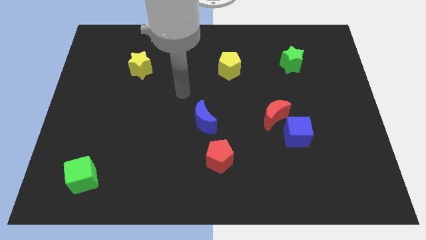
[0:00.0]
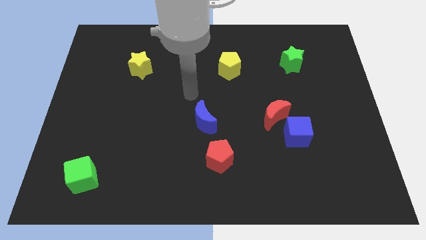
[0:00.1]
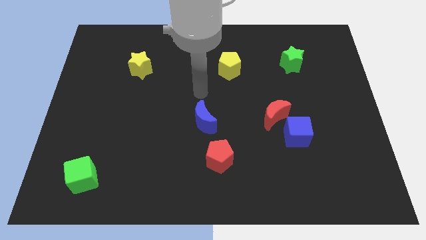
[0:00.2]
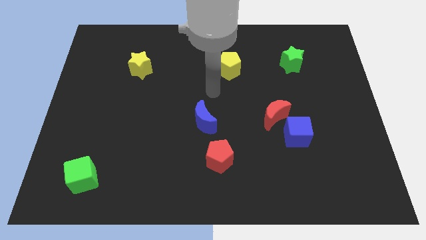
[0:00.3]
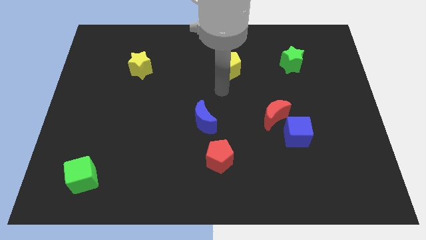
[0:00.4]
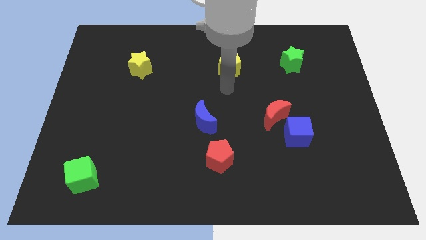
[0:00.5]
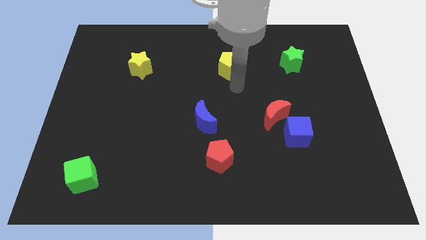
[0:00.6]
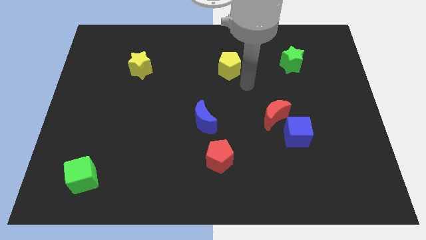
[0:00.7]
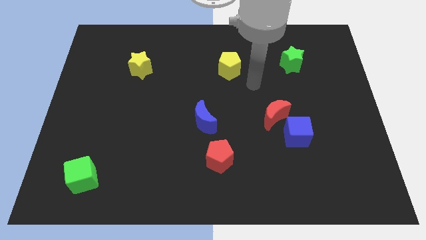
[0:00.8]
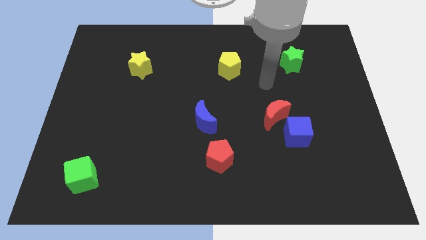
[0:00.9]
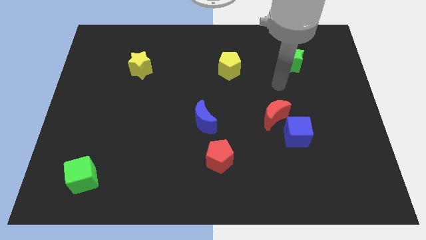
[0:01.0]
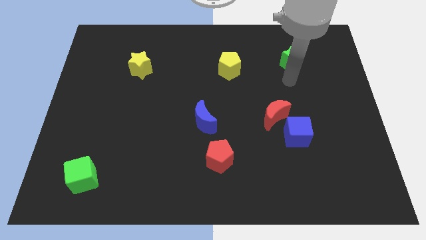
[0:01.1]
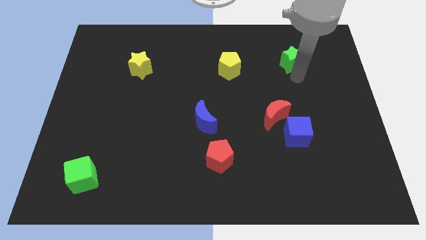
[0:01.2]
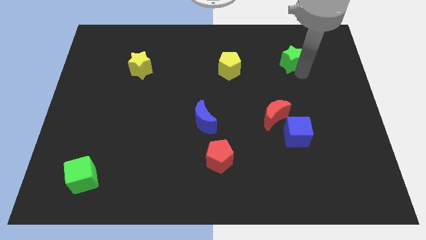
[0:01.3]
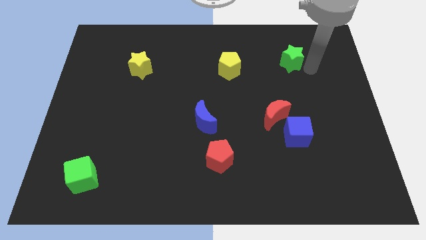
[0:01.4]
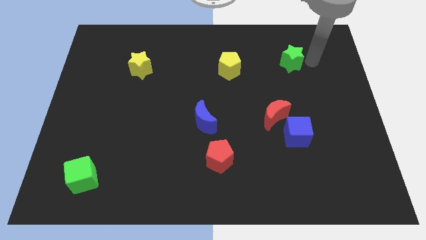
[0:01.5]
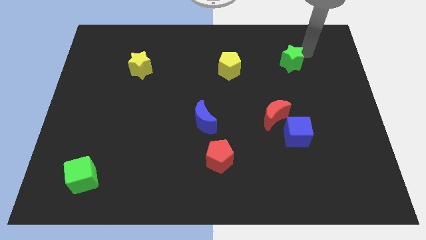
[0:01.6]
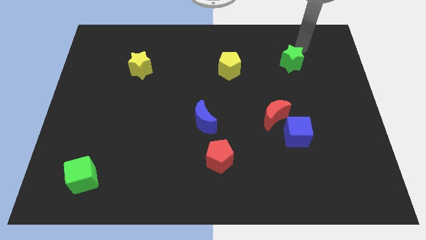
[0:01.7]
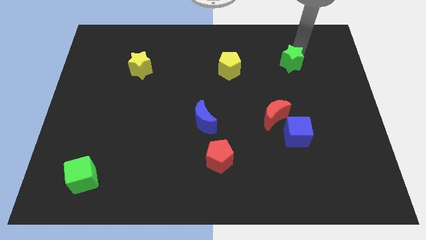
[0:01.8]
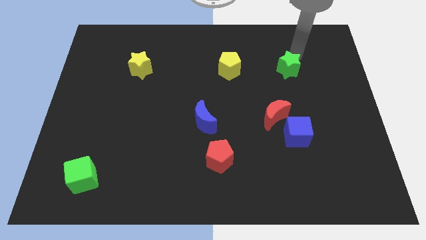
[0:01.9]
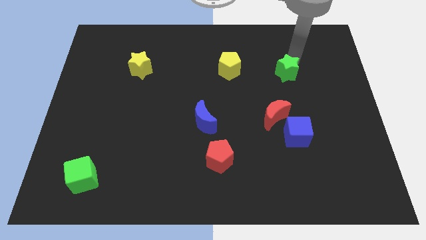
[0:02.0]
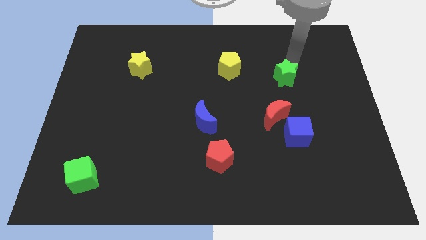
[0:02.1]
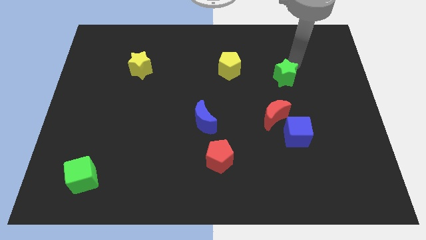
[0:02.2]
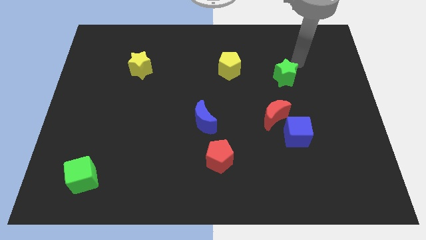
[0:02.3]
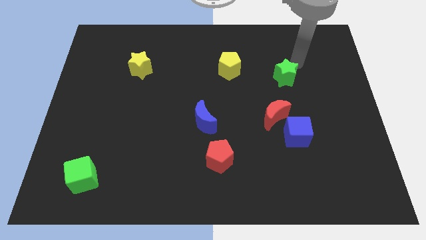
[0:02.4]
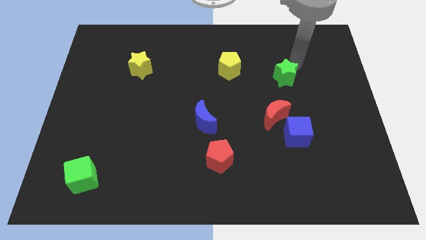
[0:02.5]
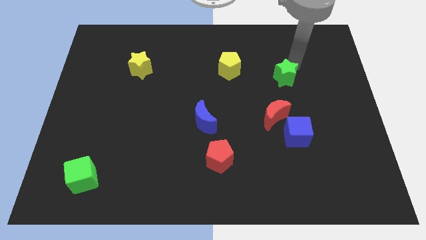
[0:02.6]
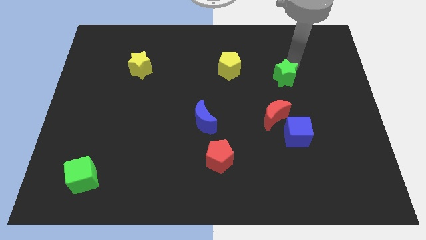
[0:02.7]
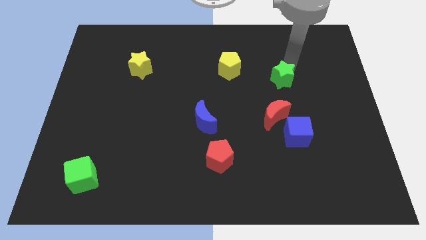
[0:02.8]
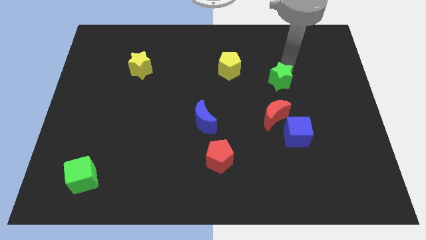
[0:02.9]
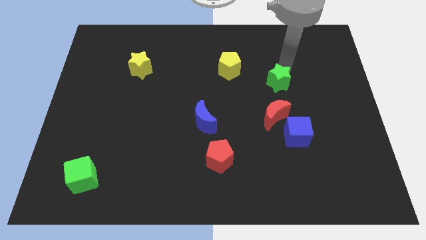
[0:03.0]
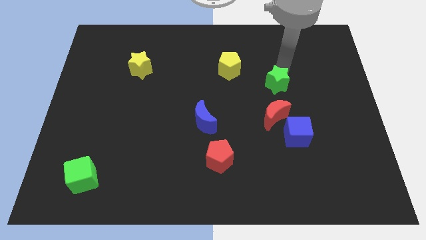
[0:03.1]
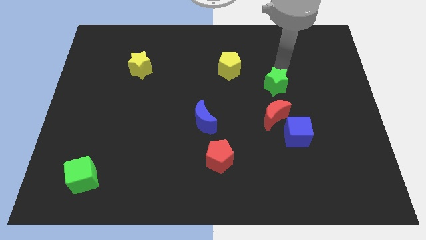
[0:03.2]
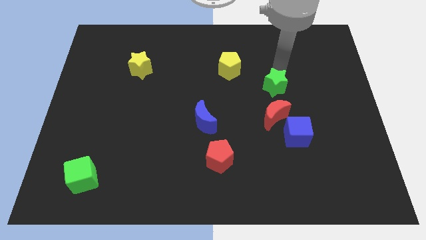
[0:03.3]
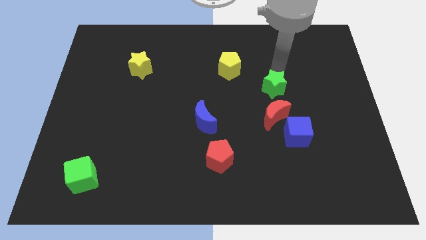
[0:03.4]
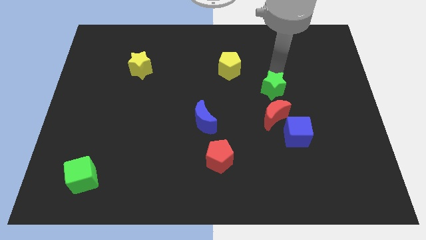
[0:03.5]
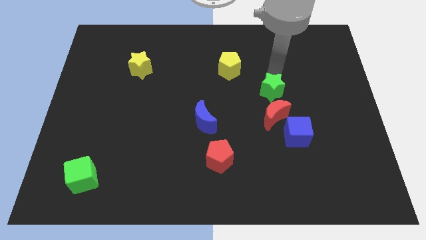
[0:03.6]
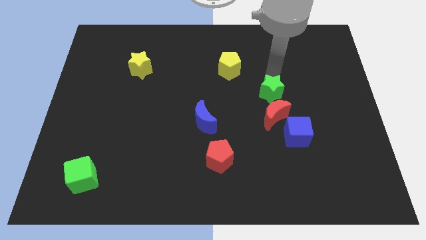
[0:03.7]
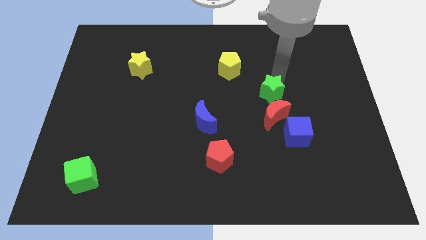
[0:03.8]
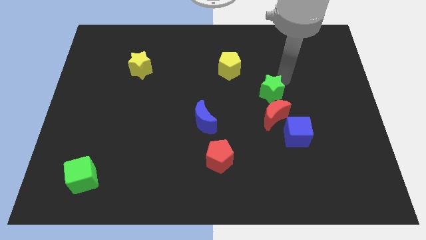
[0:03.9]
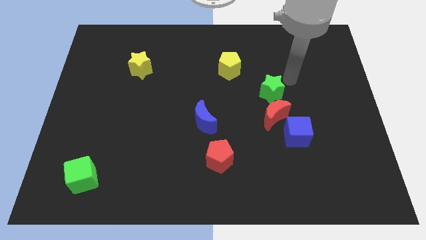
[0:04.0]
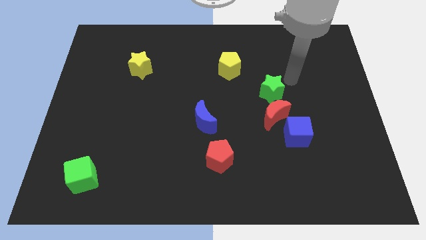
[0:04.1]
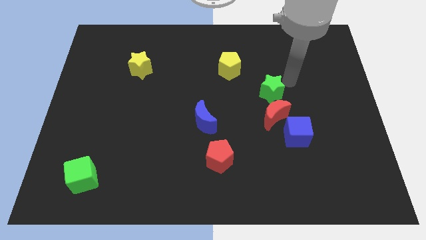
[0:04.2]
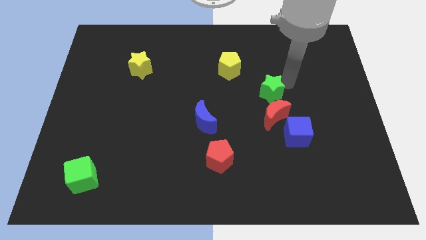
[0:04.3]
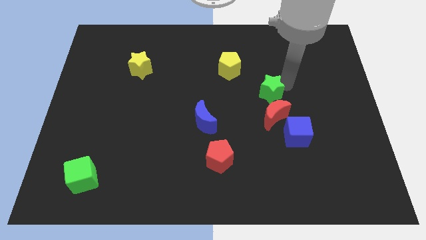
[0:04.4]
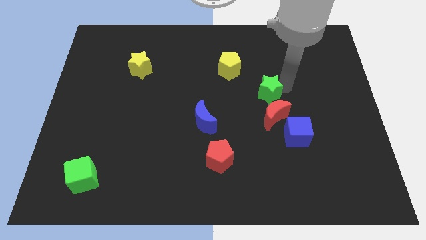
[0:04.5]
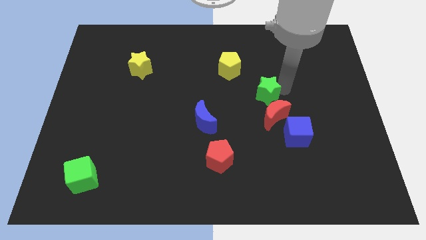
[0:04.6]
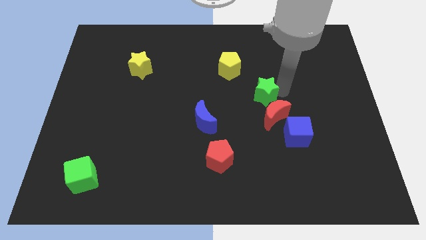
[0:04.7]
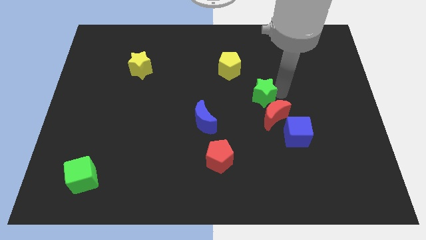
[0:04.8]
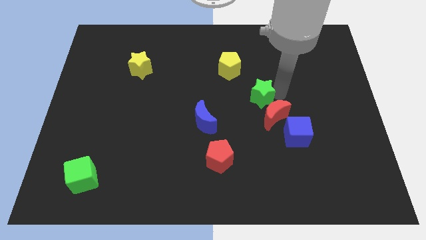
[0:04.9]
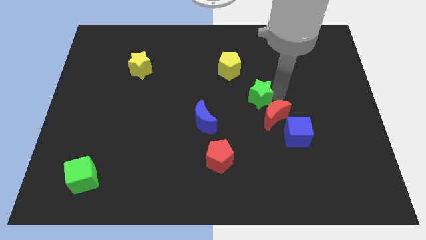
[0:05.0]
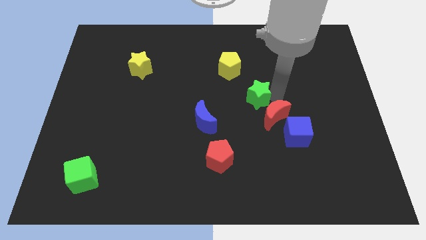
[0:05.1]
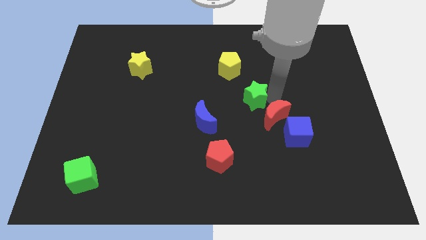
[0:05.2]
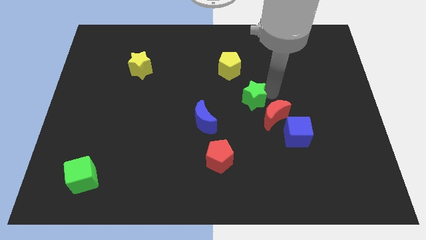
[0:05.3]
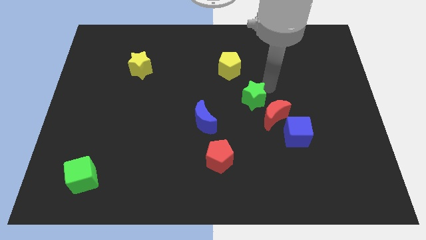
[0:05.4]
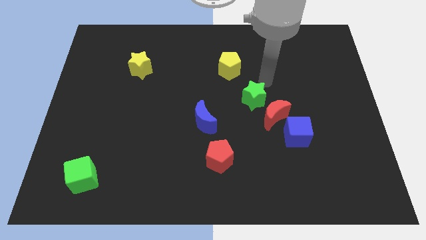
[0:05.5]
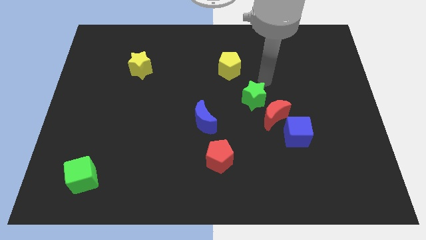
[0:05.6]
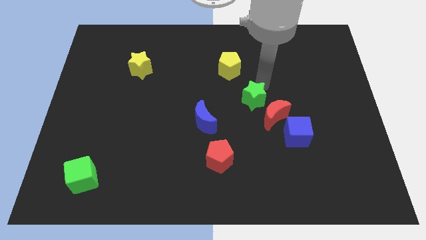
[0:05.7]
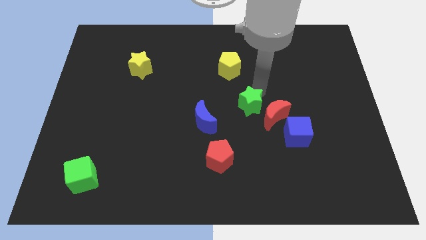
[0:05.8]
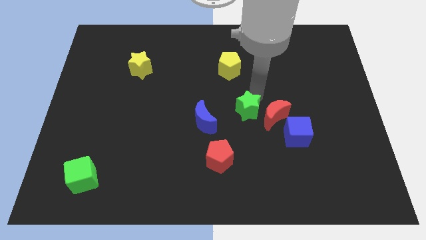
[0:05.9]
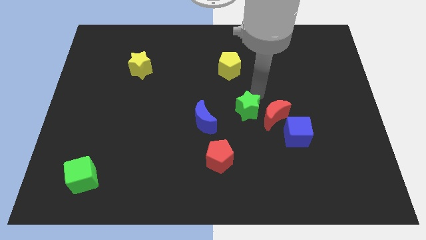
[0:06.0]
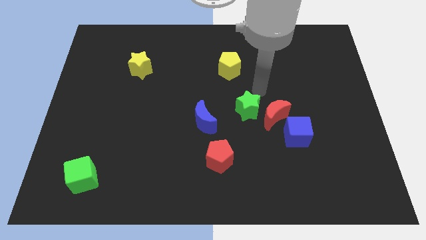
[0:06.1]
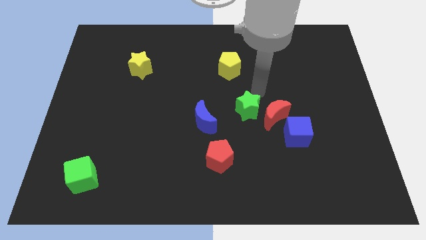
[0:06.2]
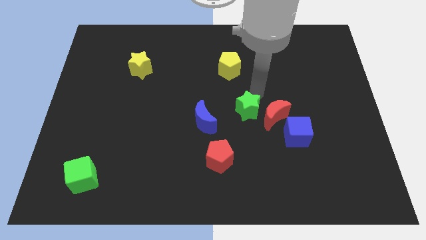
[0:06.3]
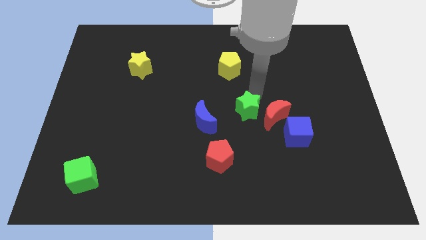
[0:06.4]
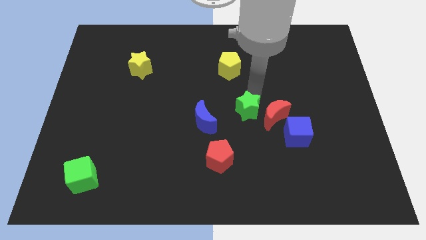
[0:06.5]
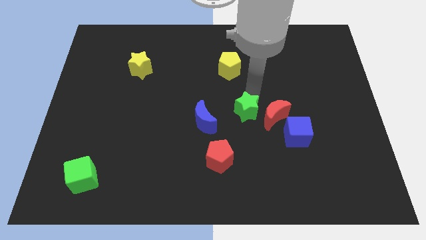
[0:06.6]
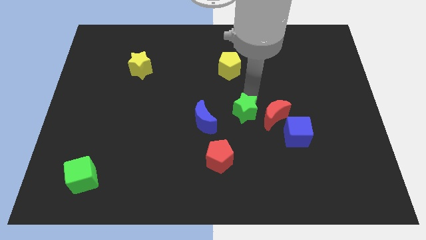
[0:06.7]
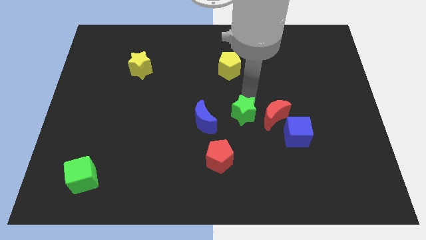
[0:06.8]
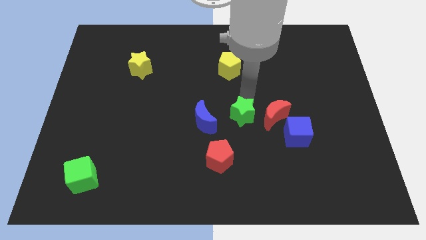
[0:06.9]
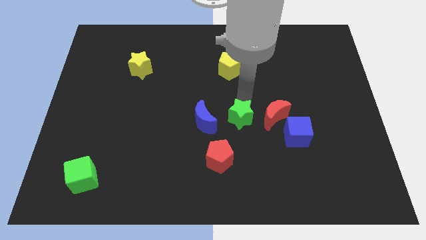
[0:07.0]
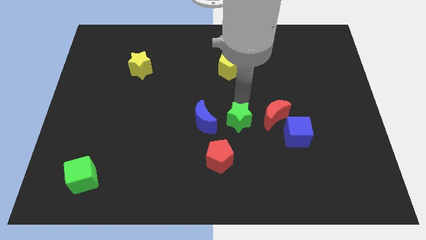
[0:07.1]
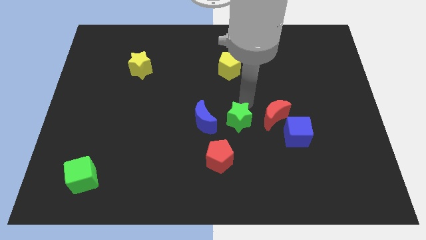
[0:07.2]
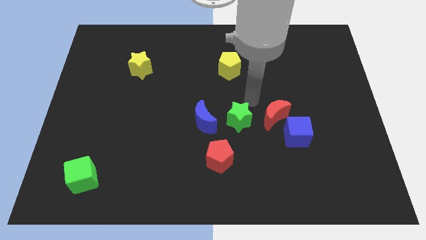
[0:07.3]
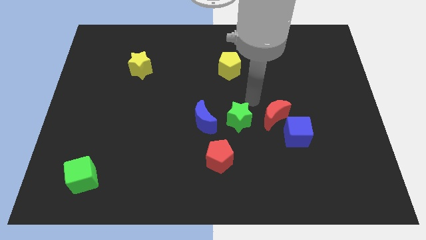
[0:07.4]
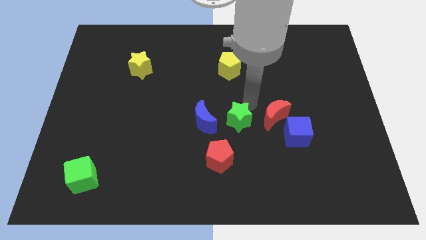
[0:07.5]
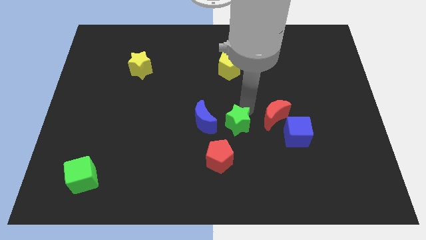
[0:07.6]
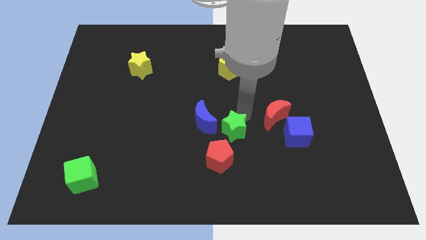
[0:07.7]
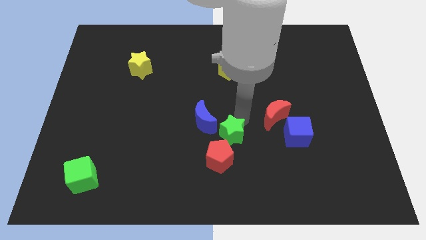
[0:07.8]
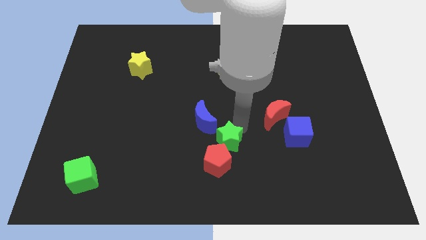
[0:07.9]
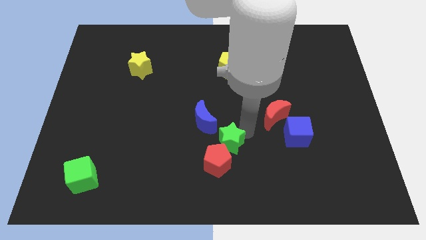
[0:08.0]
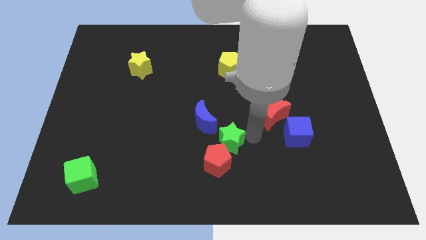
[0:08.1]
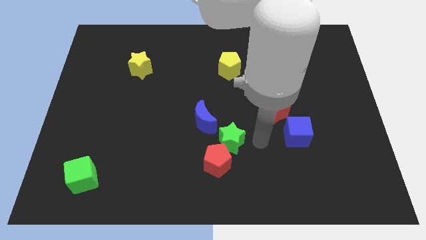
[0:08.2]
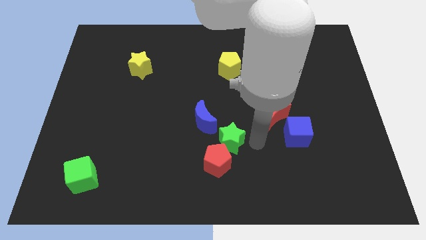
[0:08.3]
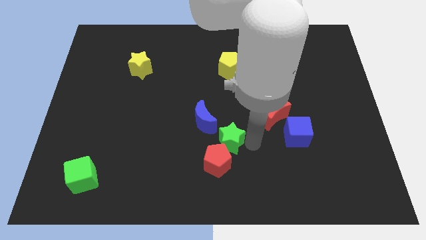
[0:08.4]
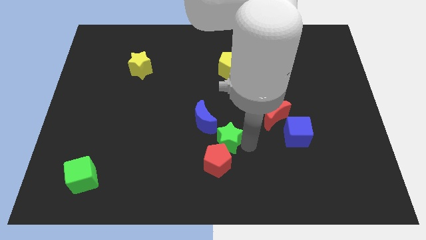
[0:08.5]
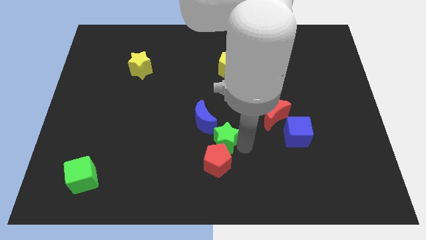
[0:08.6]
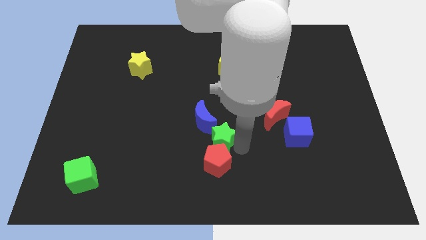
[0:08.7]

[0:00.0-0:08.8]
slide the green star to the top left side of the red pentagon
